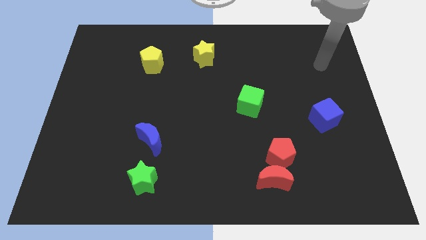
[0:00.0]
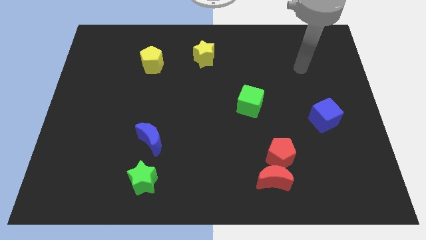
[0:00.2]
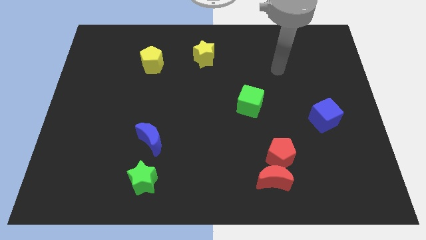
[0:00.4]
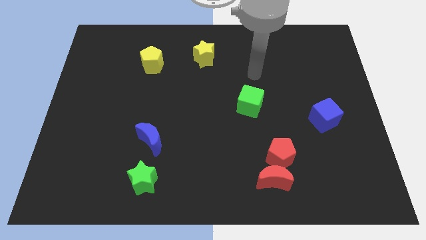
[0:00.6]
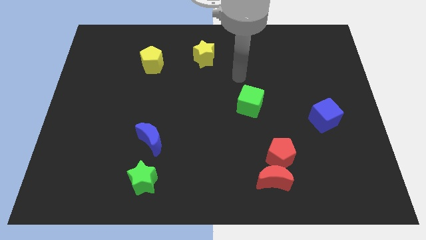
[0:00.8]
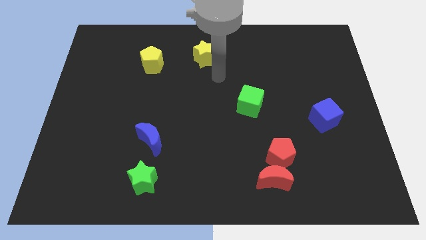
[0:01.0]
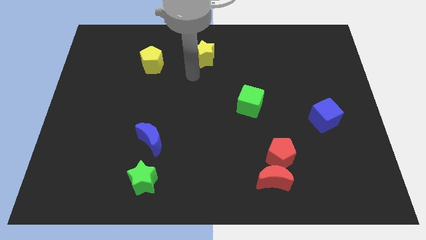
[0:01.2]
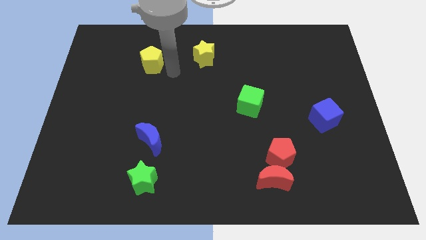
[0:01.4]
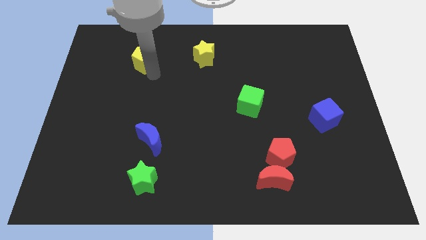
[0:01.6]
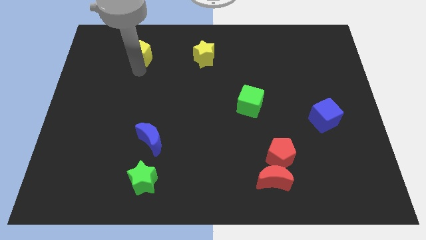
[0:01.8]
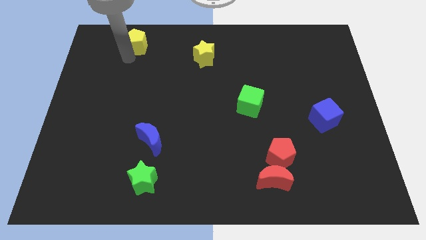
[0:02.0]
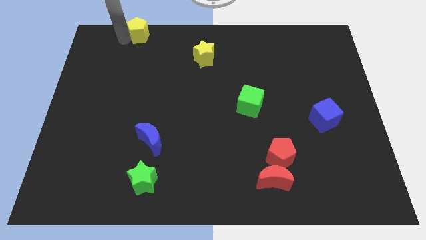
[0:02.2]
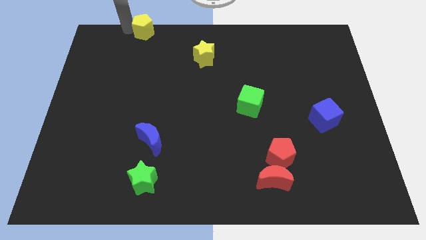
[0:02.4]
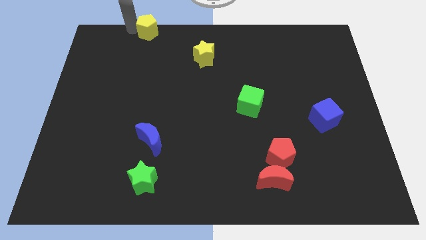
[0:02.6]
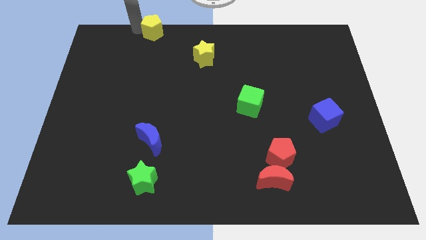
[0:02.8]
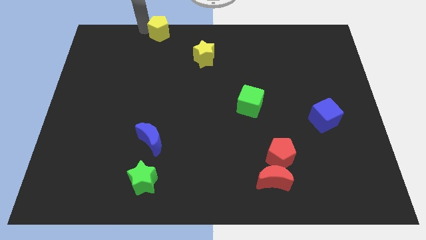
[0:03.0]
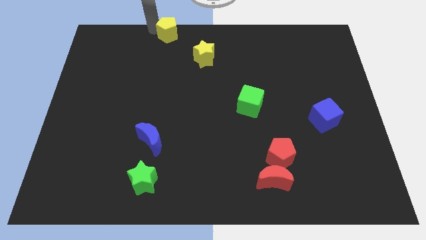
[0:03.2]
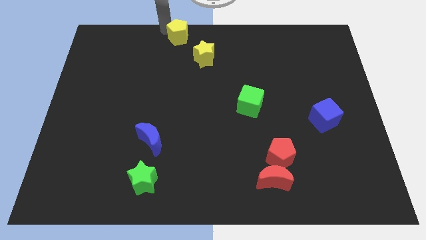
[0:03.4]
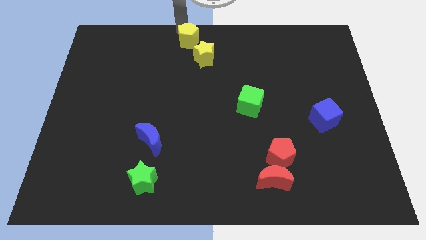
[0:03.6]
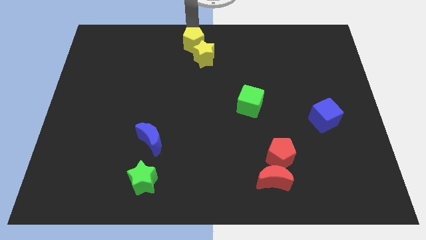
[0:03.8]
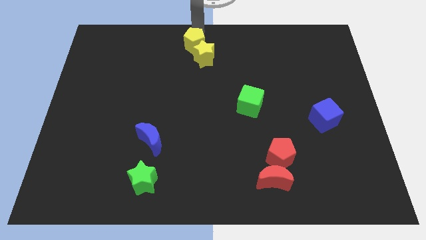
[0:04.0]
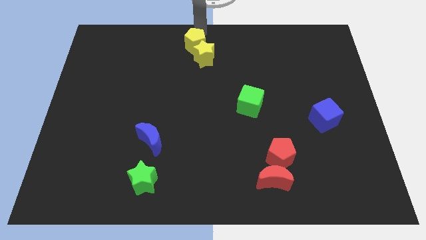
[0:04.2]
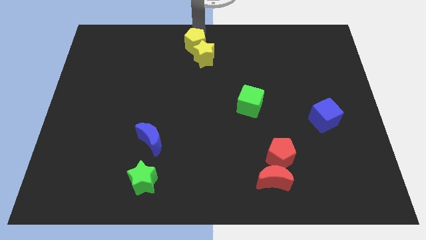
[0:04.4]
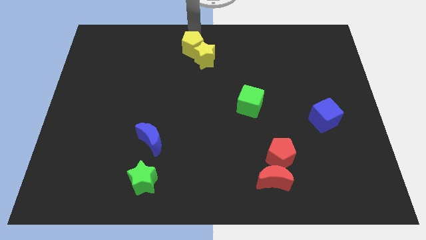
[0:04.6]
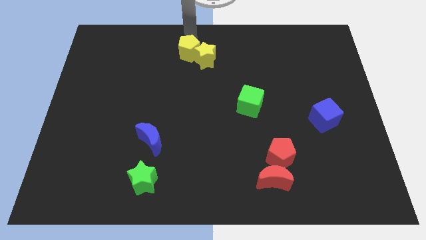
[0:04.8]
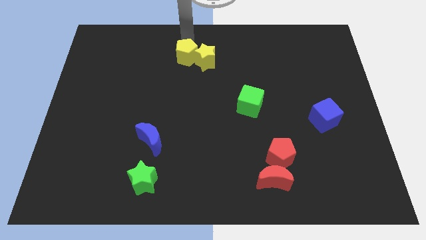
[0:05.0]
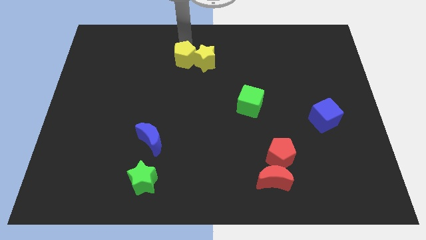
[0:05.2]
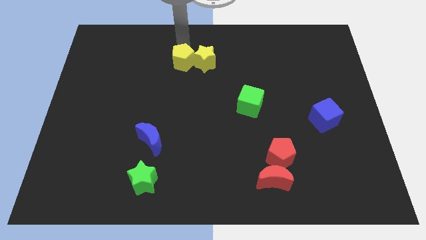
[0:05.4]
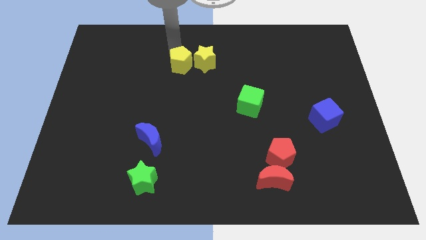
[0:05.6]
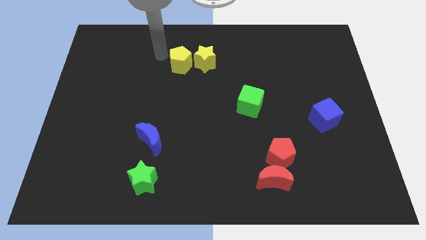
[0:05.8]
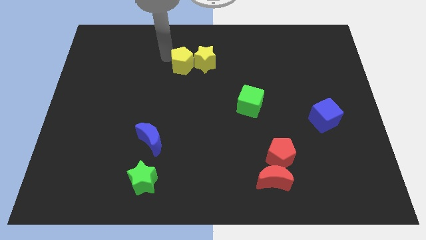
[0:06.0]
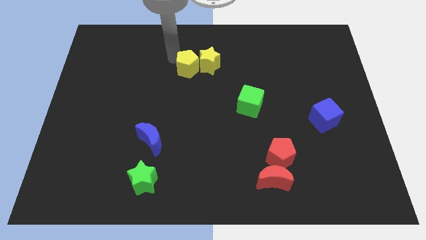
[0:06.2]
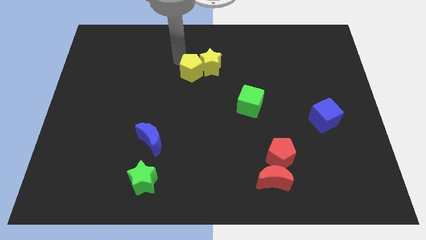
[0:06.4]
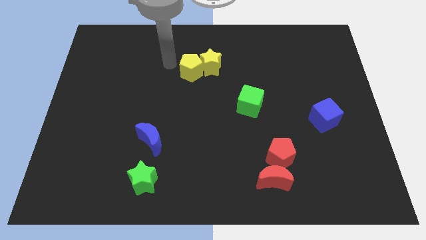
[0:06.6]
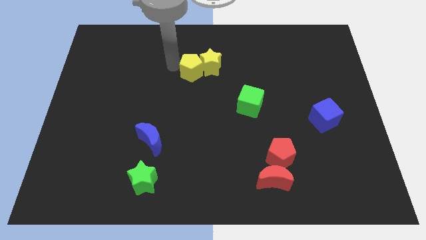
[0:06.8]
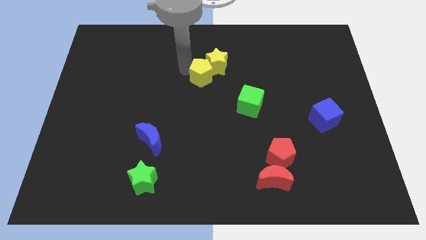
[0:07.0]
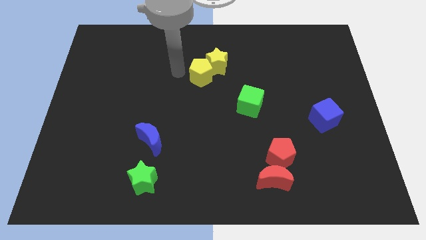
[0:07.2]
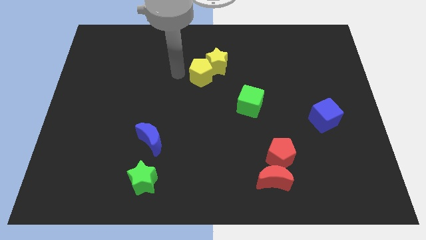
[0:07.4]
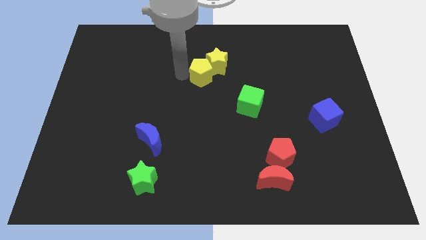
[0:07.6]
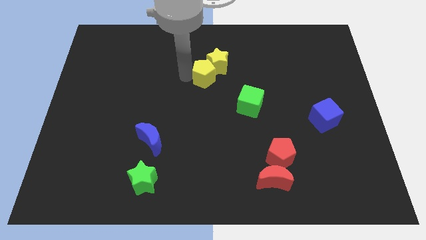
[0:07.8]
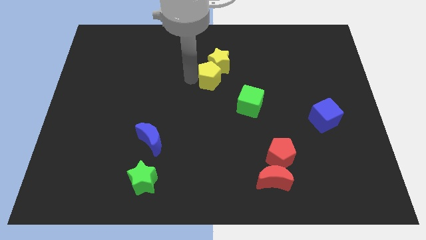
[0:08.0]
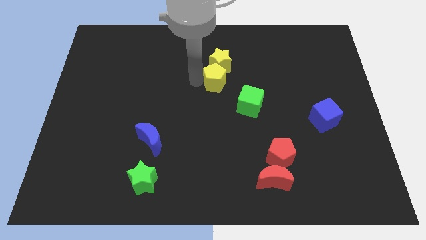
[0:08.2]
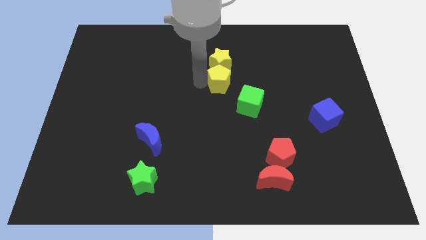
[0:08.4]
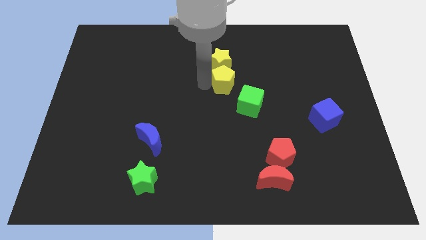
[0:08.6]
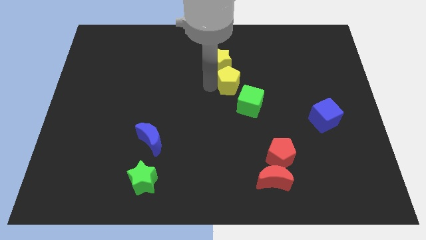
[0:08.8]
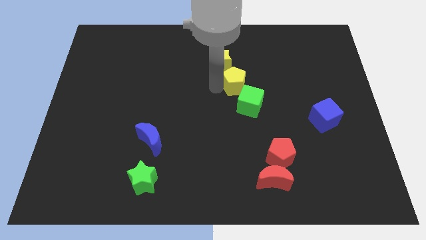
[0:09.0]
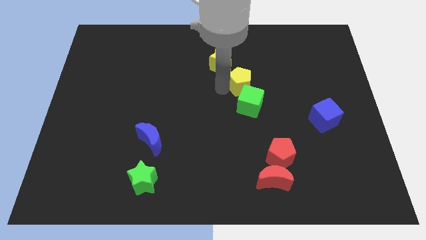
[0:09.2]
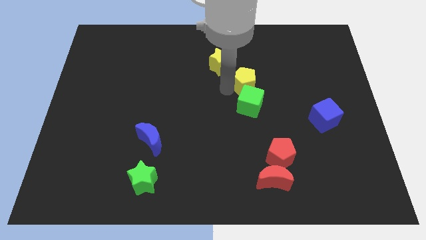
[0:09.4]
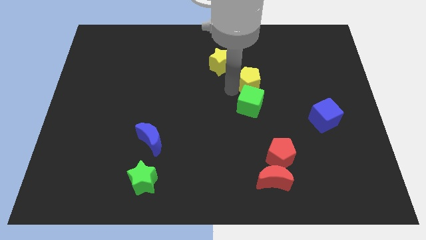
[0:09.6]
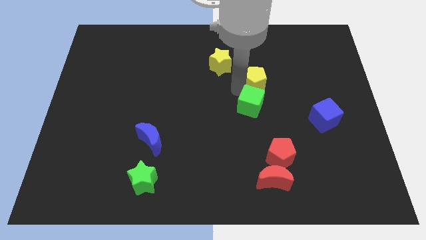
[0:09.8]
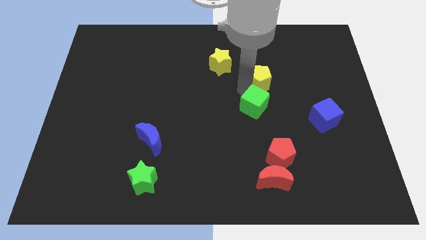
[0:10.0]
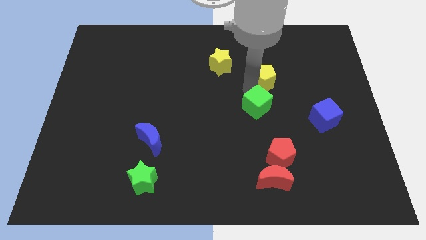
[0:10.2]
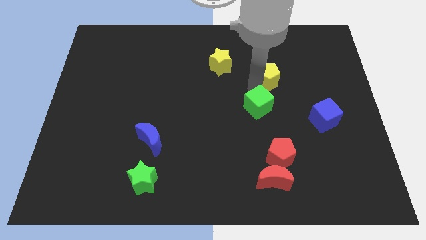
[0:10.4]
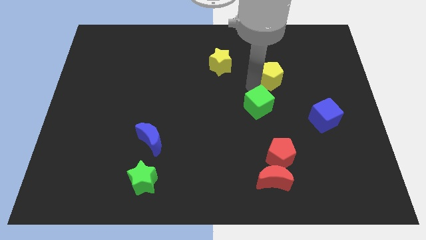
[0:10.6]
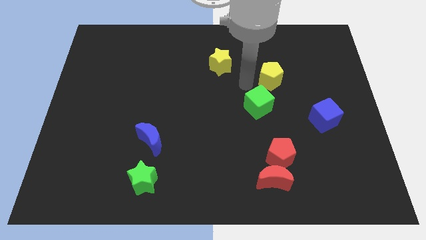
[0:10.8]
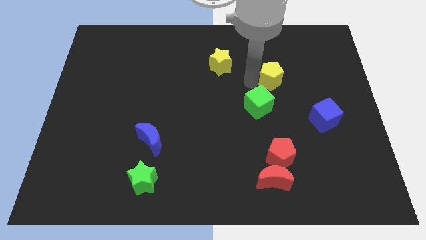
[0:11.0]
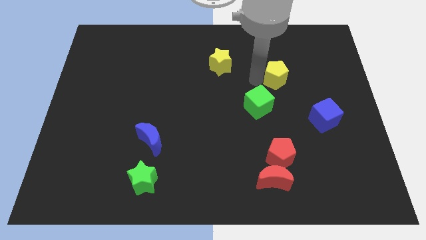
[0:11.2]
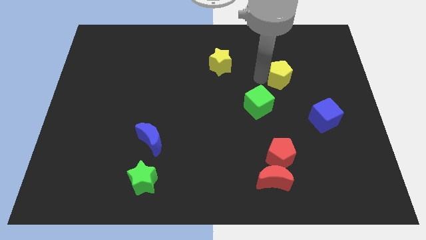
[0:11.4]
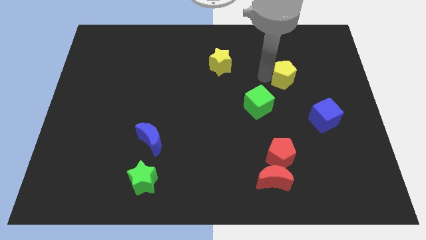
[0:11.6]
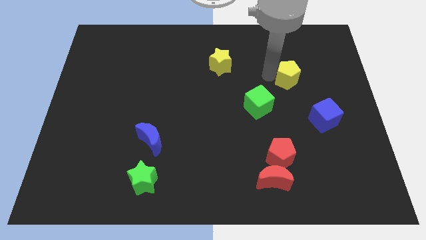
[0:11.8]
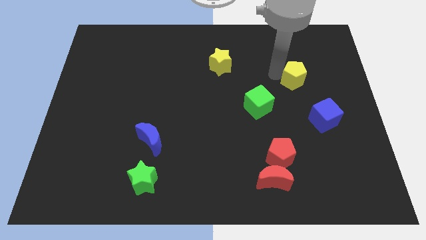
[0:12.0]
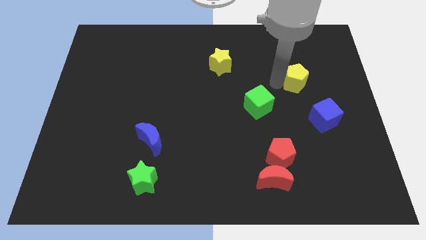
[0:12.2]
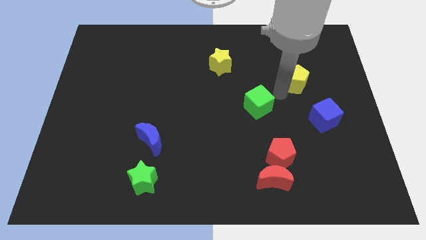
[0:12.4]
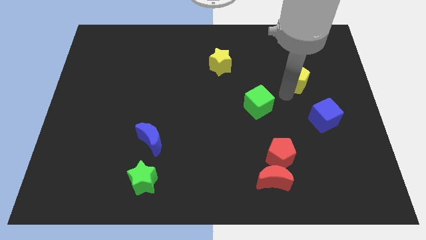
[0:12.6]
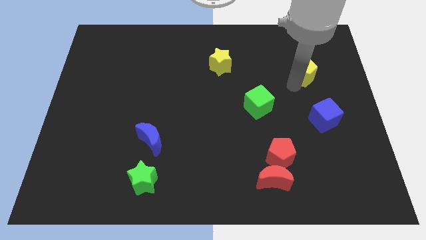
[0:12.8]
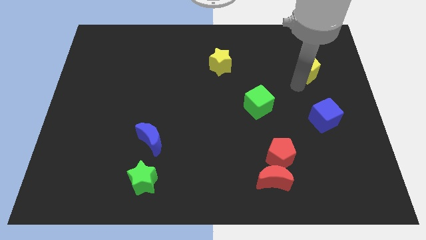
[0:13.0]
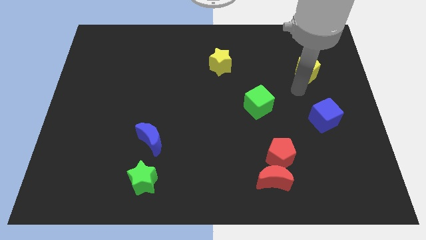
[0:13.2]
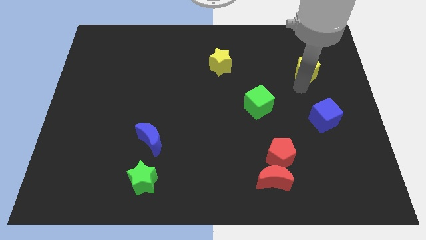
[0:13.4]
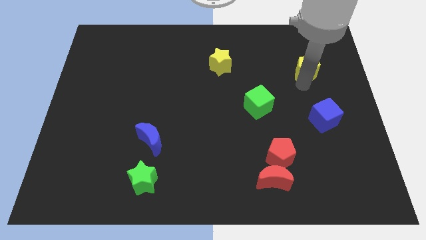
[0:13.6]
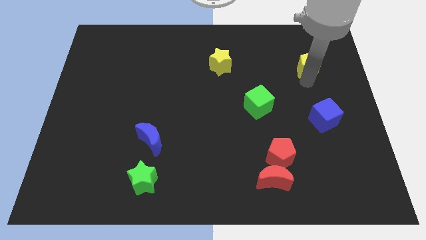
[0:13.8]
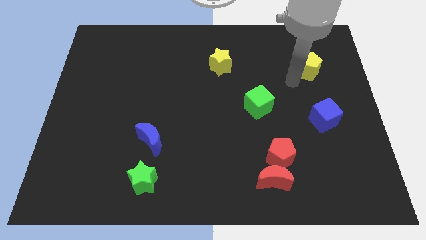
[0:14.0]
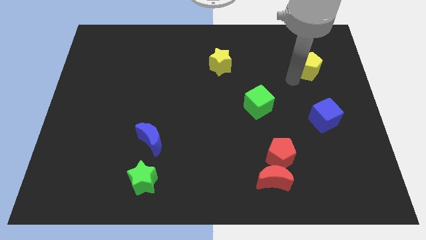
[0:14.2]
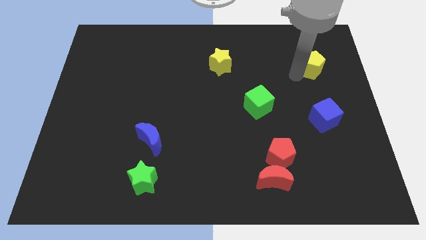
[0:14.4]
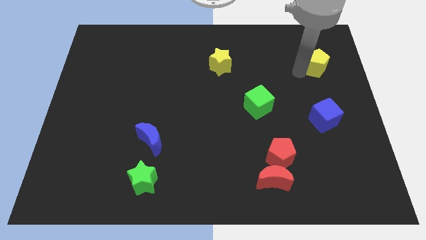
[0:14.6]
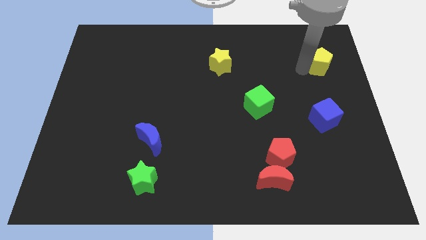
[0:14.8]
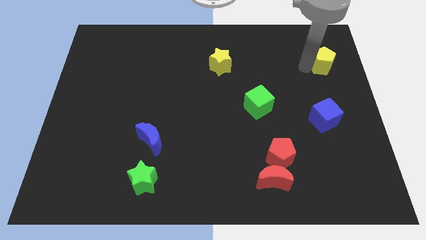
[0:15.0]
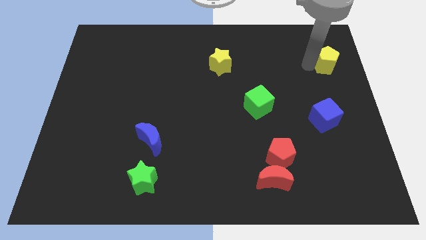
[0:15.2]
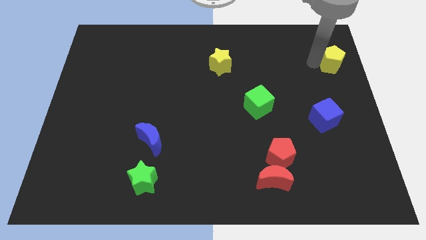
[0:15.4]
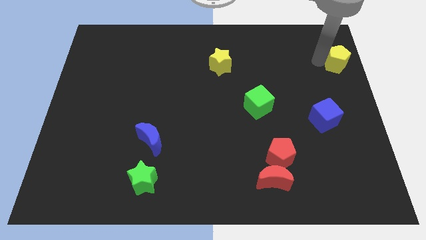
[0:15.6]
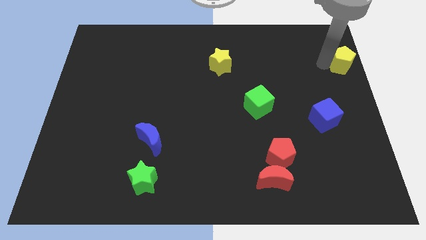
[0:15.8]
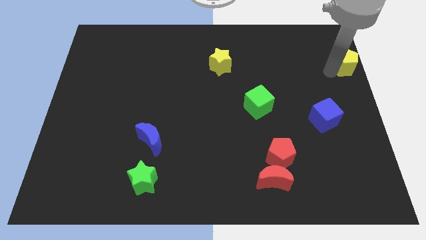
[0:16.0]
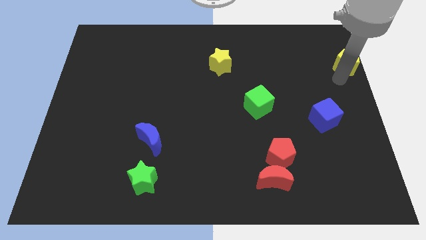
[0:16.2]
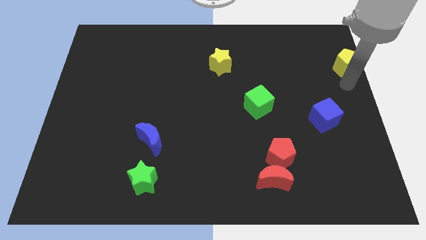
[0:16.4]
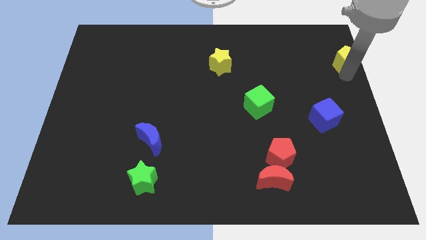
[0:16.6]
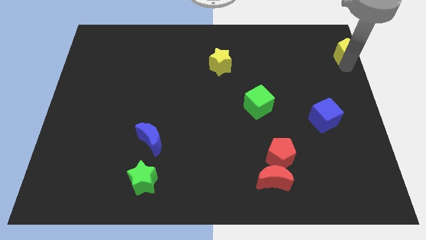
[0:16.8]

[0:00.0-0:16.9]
slide the yellow pentagon to the top right corner
